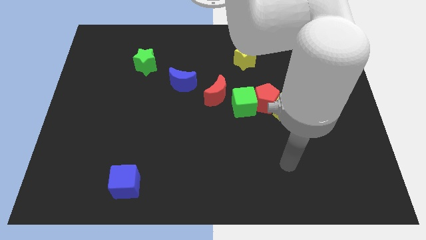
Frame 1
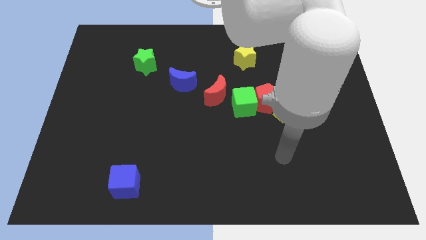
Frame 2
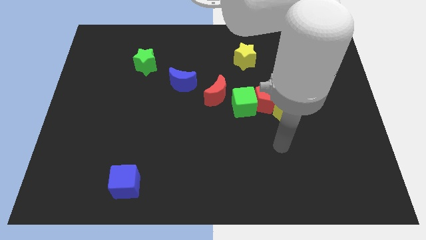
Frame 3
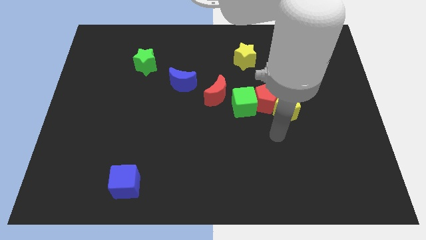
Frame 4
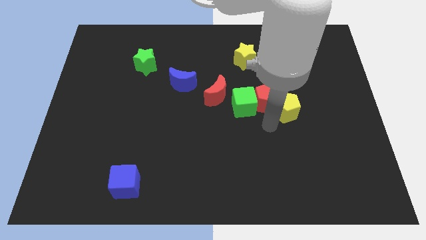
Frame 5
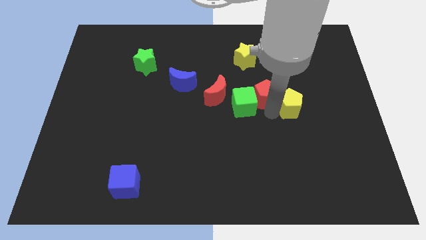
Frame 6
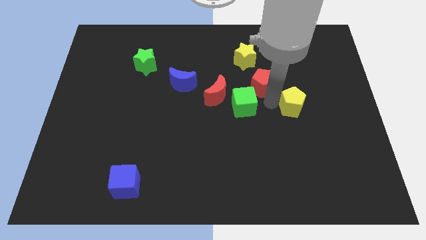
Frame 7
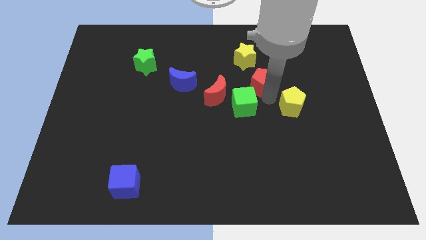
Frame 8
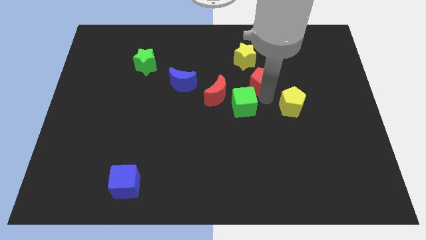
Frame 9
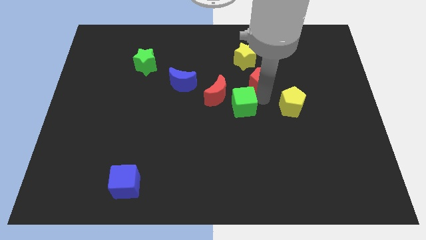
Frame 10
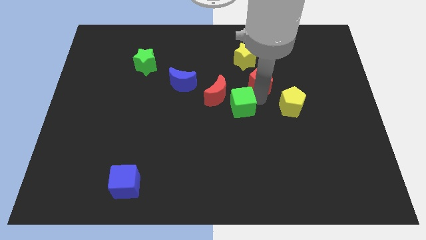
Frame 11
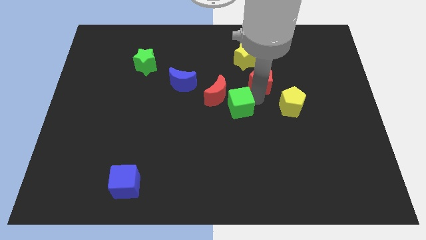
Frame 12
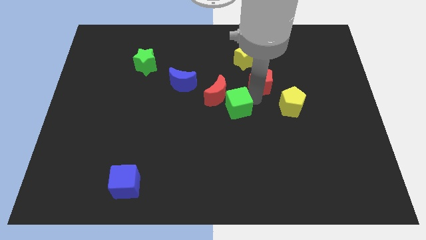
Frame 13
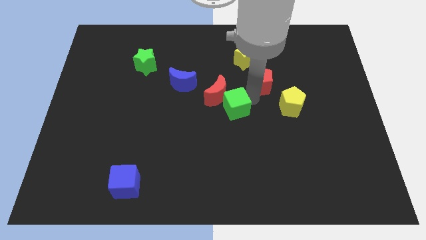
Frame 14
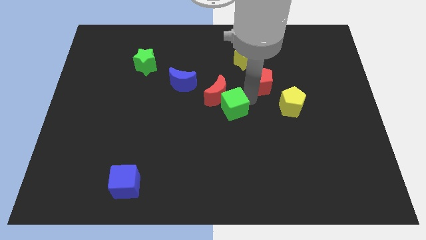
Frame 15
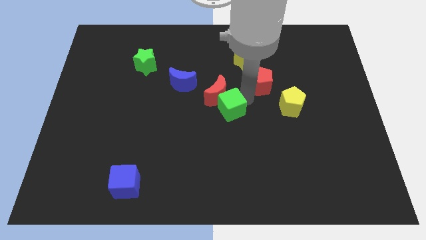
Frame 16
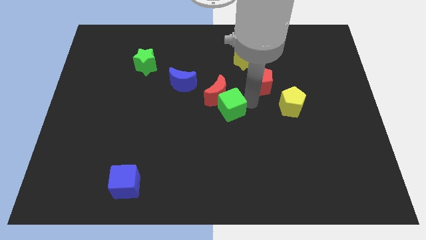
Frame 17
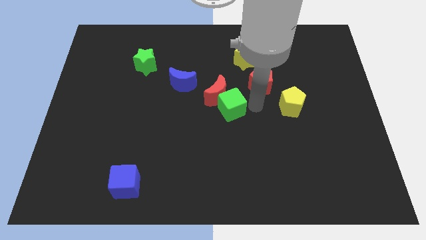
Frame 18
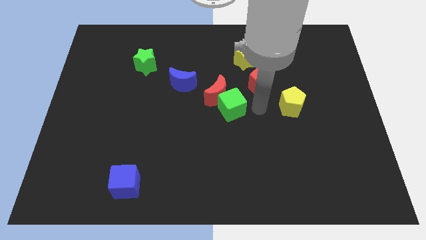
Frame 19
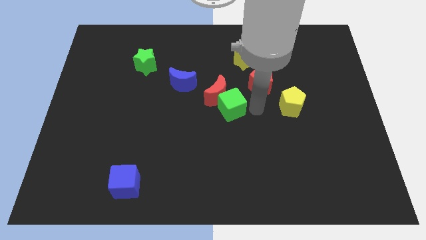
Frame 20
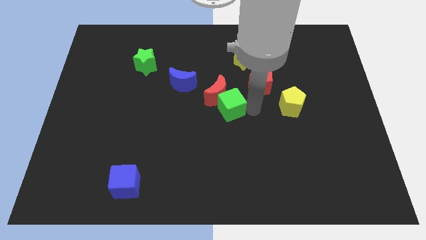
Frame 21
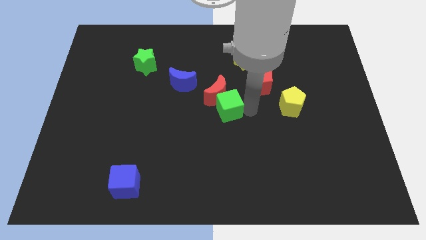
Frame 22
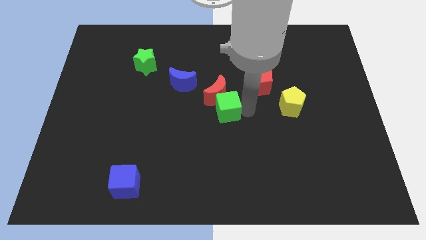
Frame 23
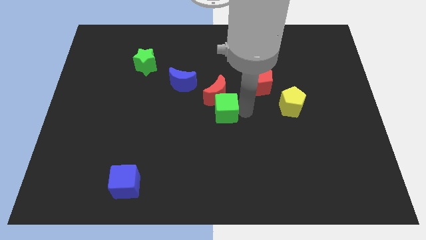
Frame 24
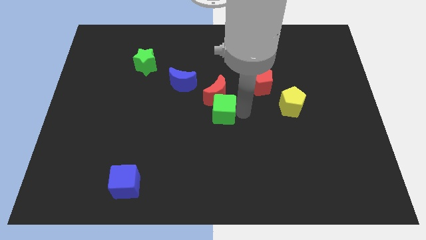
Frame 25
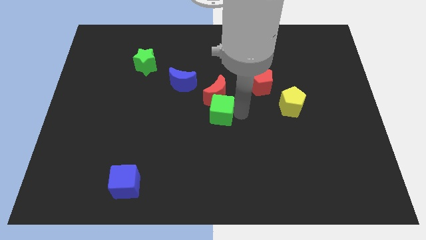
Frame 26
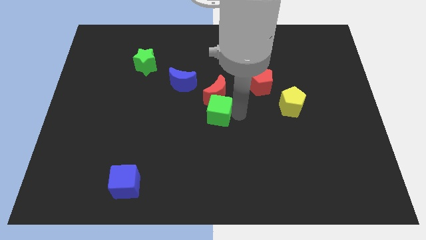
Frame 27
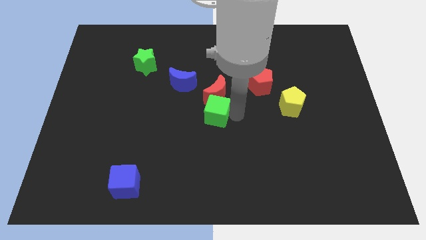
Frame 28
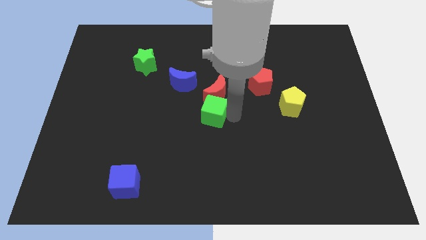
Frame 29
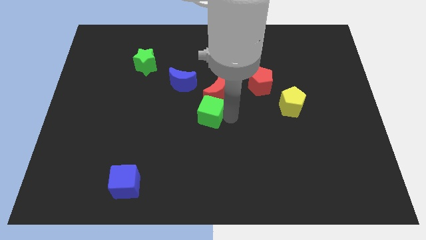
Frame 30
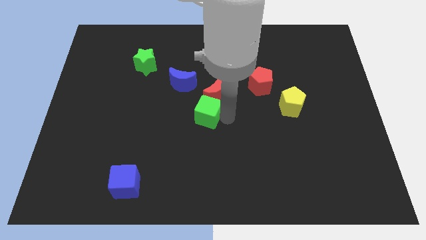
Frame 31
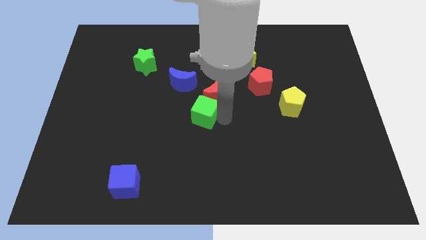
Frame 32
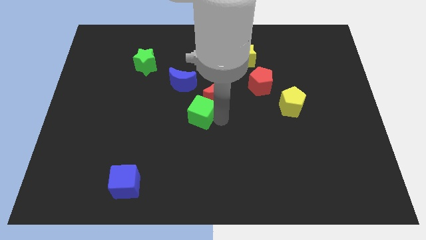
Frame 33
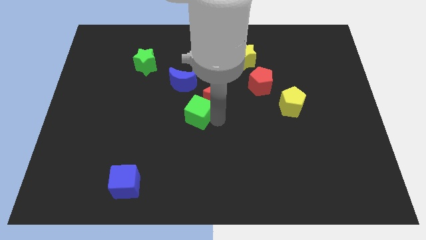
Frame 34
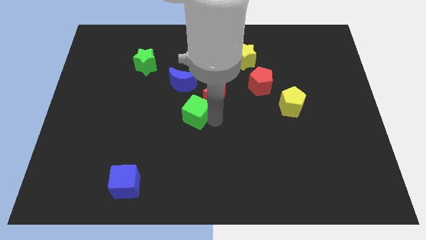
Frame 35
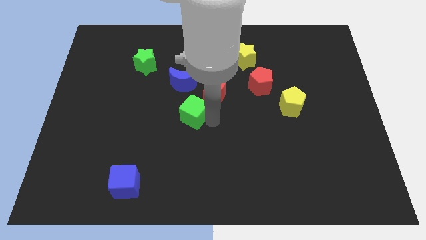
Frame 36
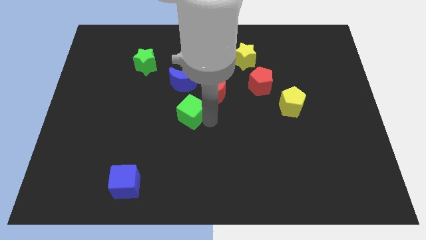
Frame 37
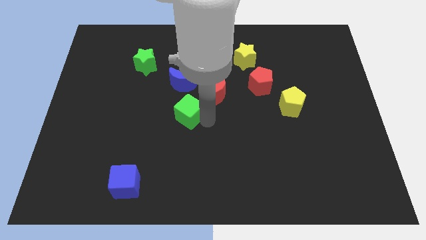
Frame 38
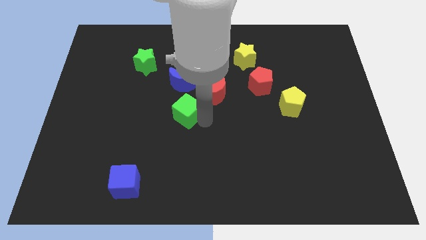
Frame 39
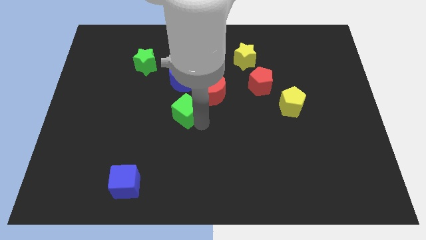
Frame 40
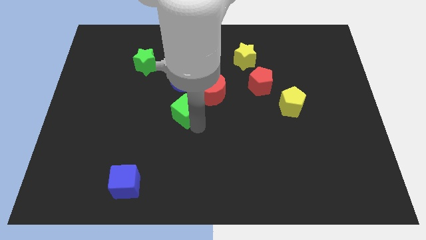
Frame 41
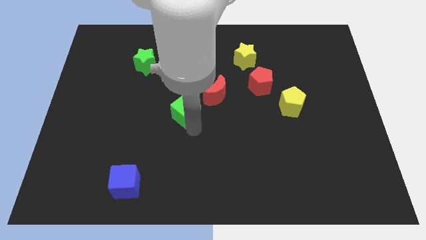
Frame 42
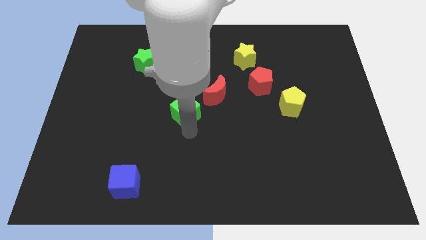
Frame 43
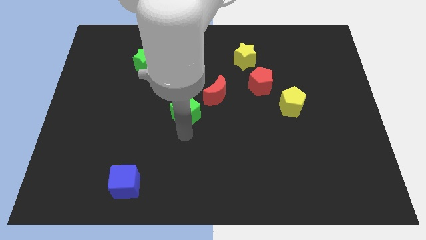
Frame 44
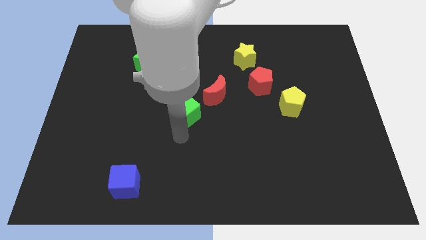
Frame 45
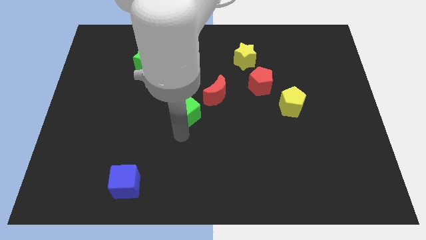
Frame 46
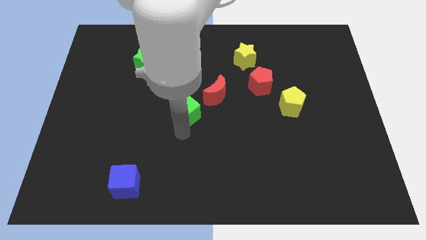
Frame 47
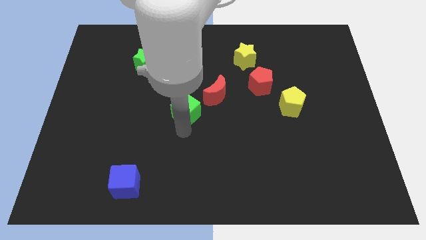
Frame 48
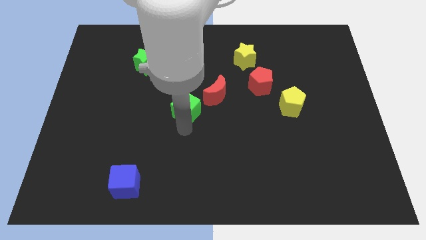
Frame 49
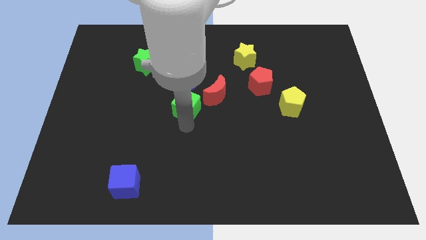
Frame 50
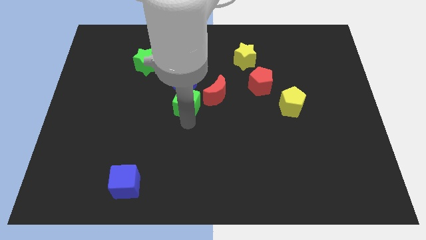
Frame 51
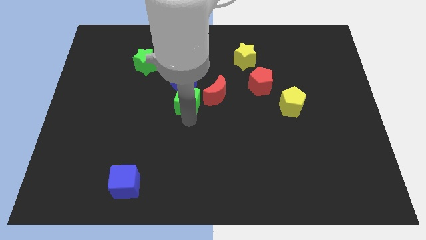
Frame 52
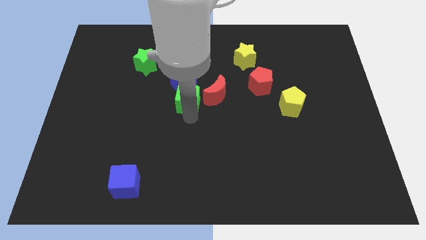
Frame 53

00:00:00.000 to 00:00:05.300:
push the green cube towards the blue moon

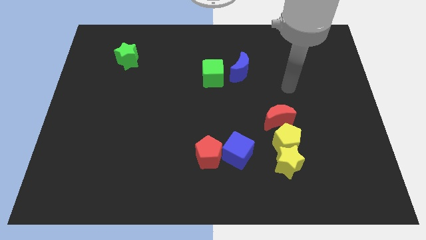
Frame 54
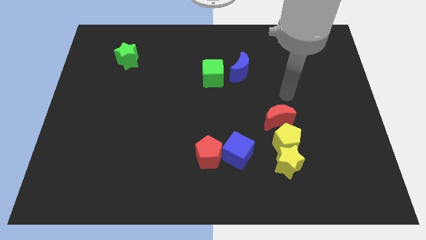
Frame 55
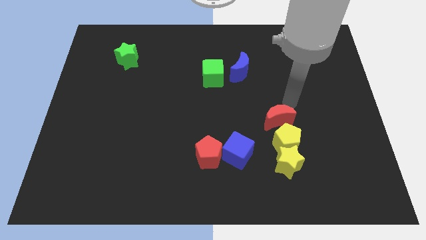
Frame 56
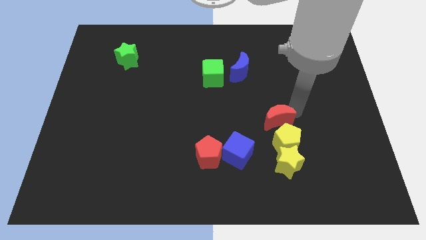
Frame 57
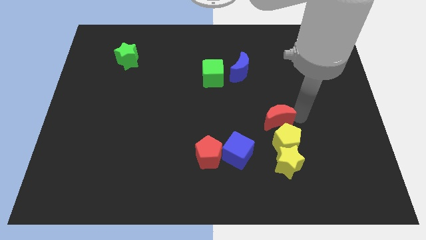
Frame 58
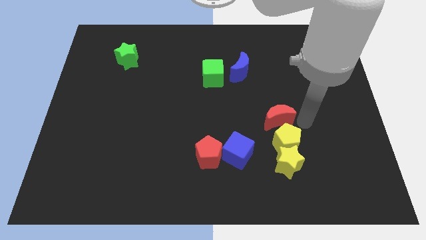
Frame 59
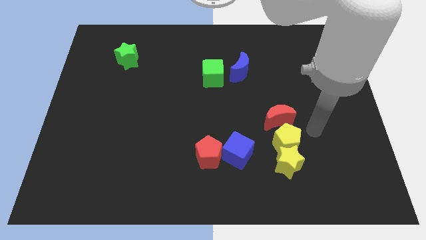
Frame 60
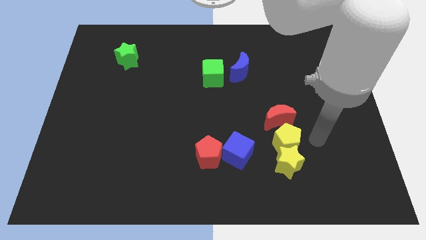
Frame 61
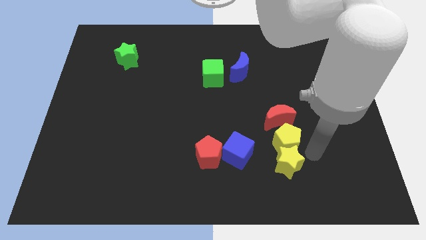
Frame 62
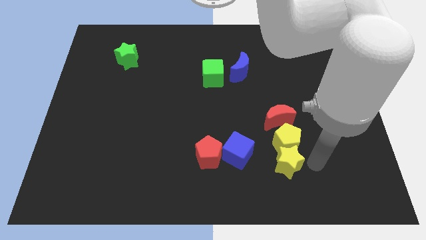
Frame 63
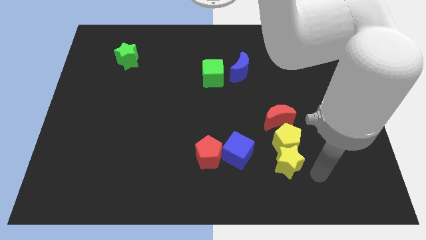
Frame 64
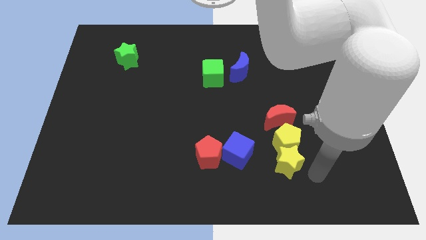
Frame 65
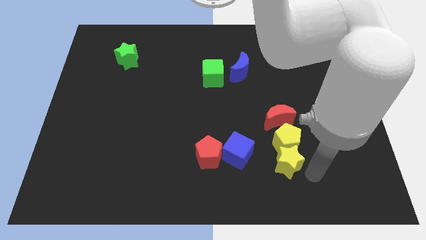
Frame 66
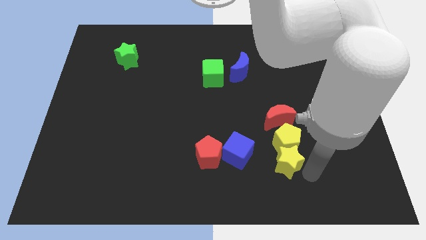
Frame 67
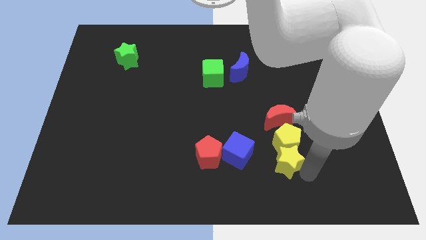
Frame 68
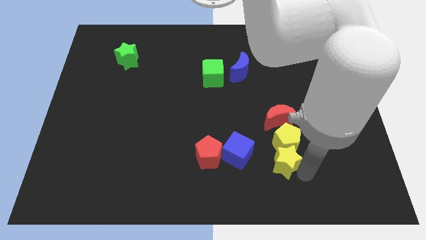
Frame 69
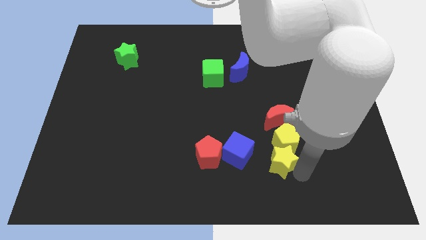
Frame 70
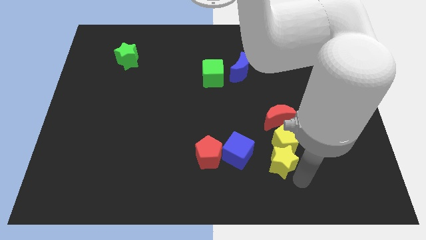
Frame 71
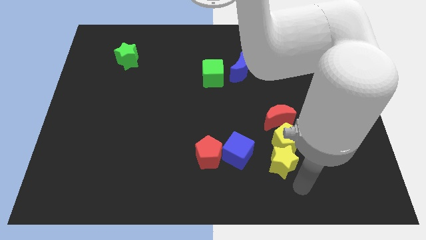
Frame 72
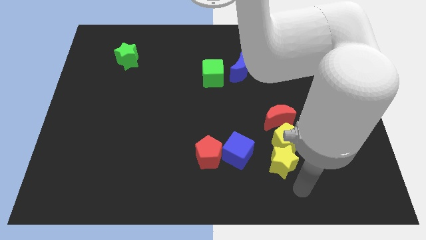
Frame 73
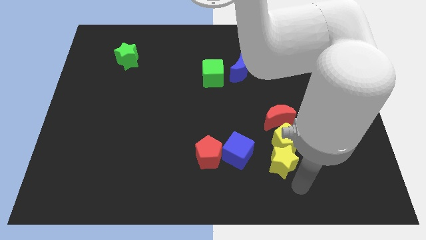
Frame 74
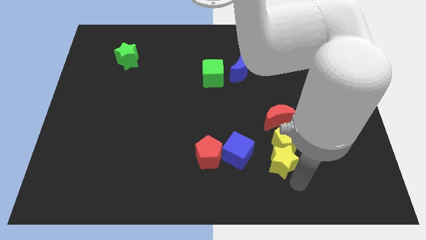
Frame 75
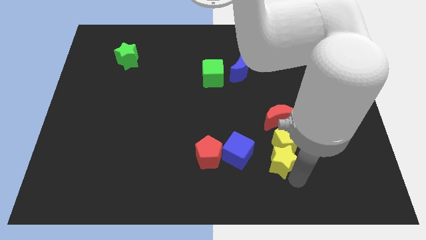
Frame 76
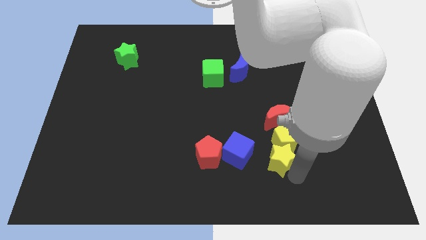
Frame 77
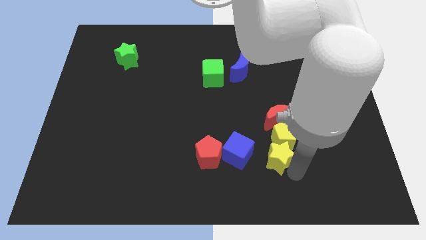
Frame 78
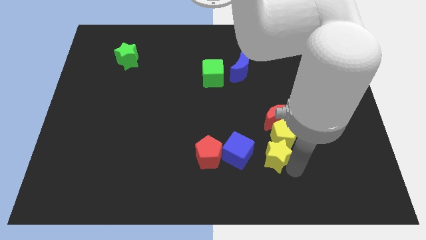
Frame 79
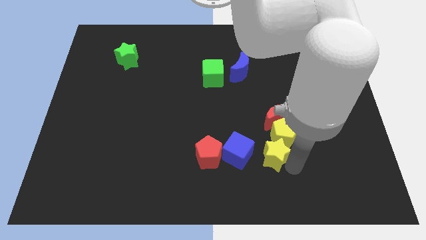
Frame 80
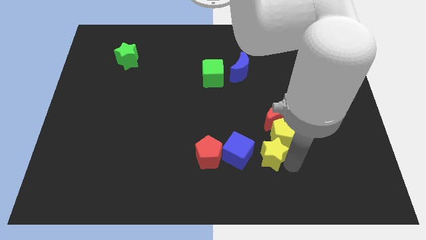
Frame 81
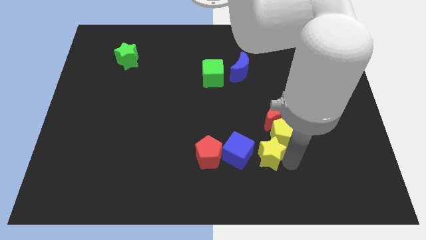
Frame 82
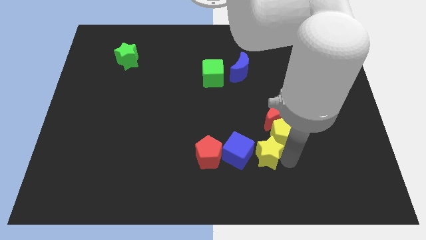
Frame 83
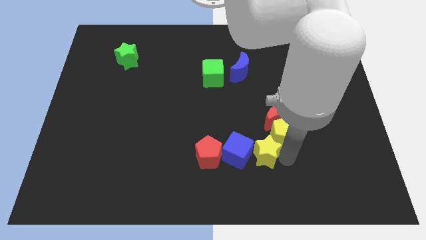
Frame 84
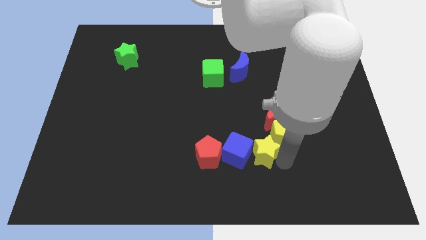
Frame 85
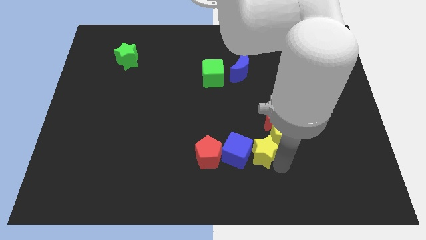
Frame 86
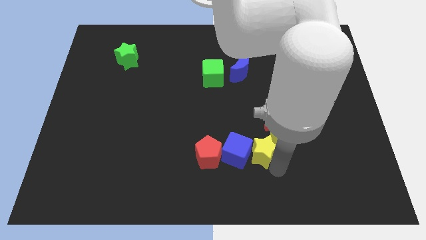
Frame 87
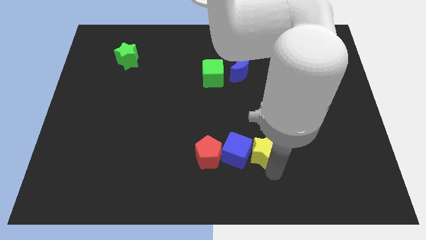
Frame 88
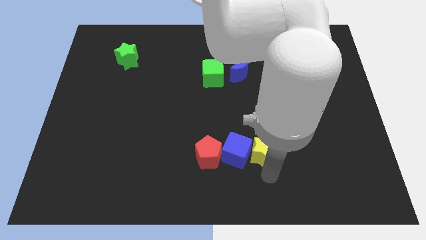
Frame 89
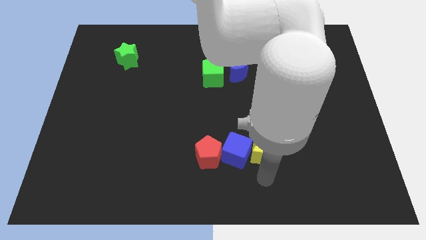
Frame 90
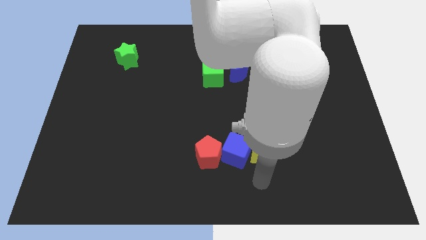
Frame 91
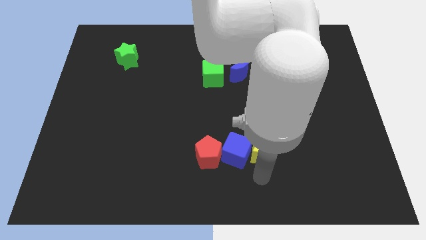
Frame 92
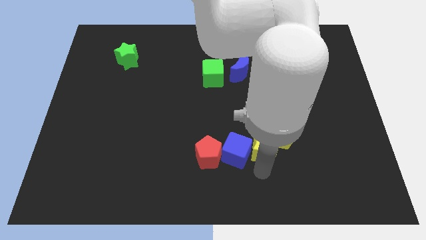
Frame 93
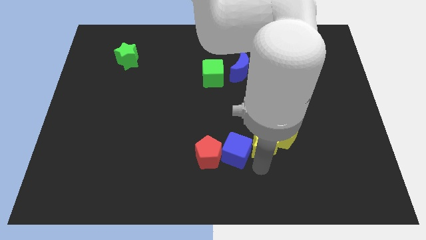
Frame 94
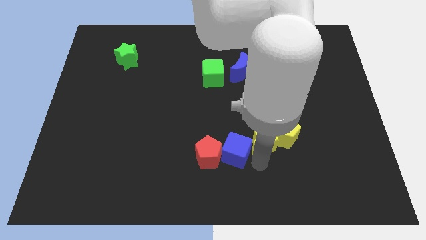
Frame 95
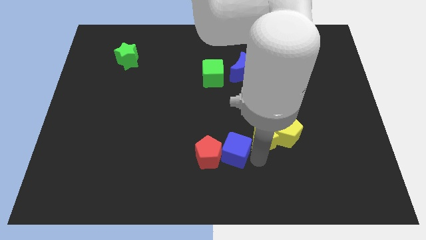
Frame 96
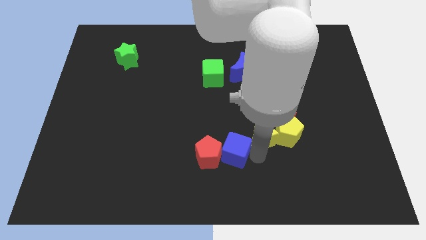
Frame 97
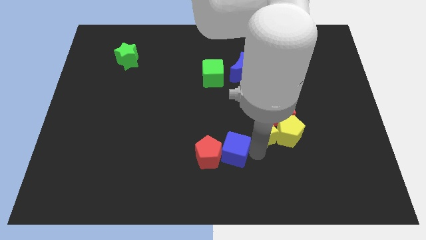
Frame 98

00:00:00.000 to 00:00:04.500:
move the yellow star to the red moon
